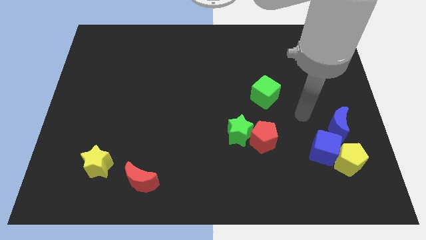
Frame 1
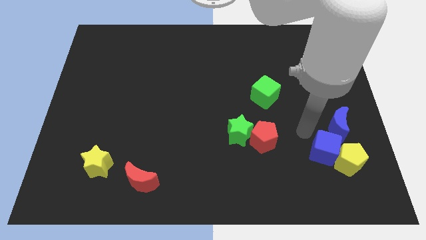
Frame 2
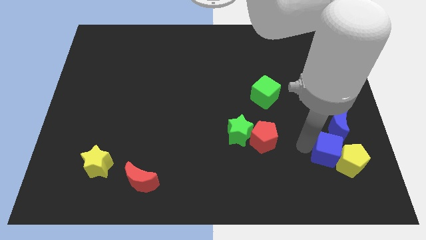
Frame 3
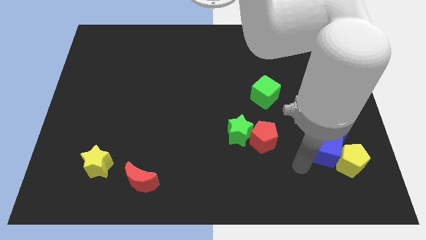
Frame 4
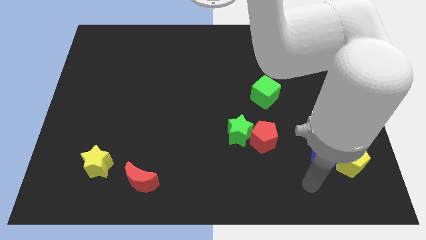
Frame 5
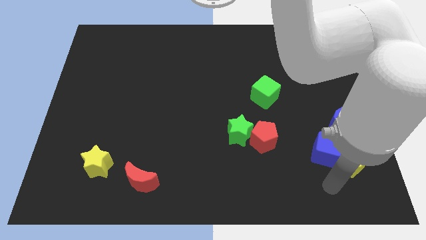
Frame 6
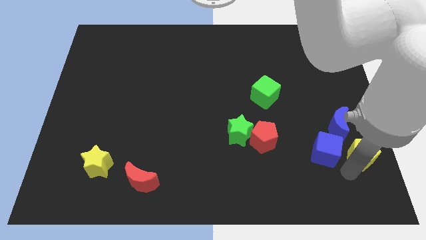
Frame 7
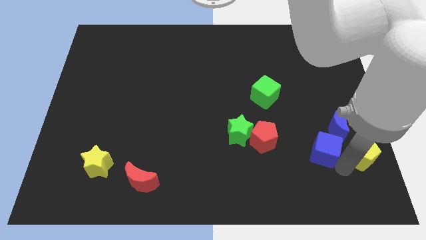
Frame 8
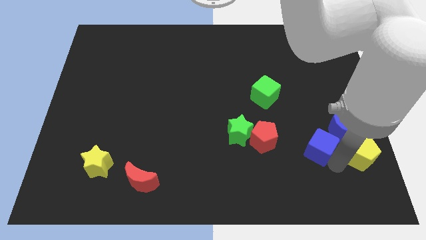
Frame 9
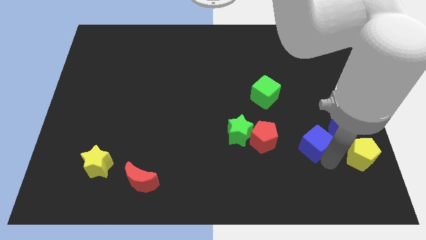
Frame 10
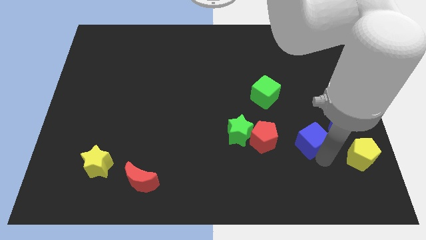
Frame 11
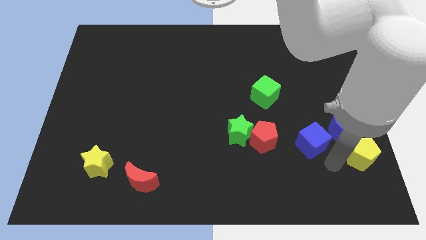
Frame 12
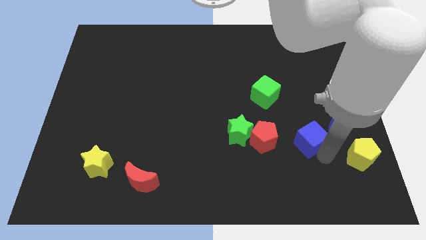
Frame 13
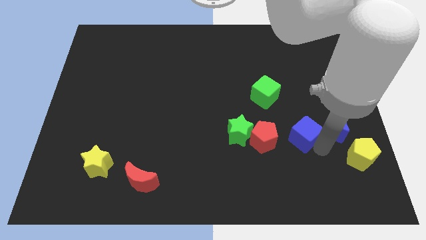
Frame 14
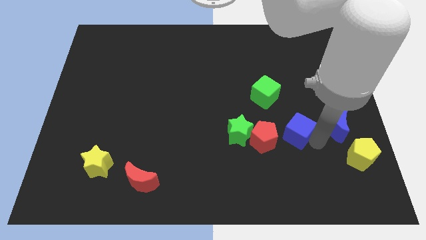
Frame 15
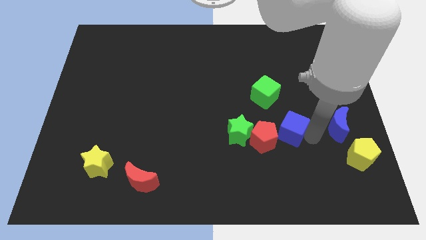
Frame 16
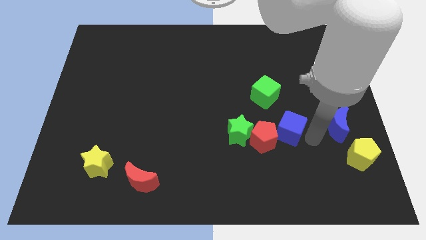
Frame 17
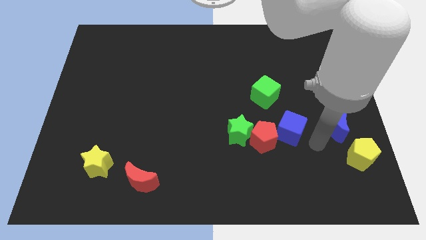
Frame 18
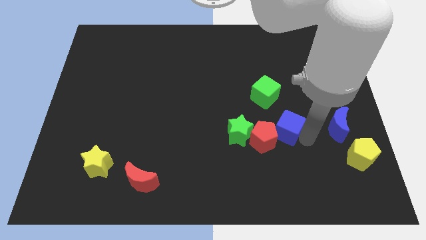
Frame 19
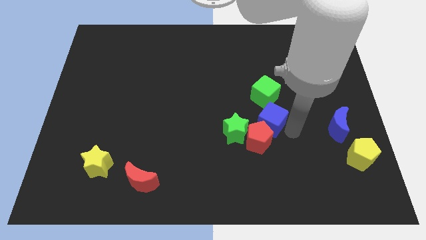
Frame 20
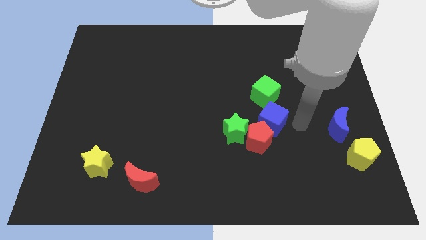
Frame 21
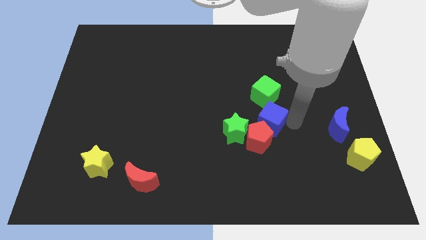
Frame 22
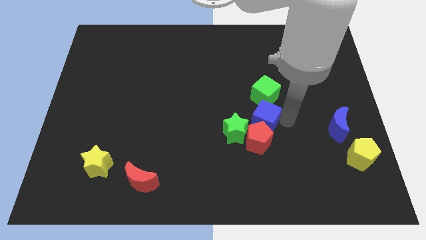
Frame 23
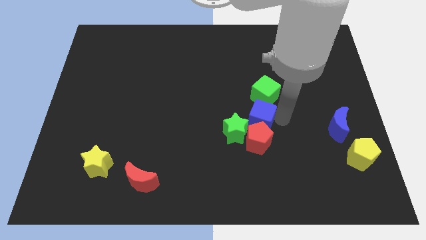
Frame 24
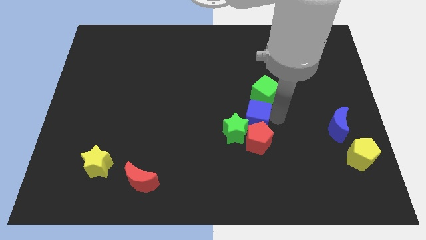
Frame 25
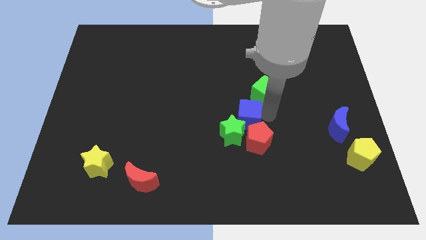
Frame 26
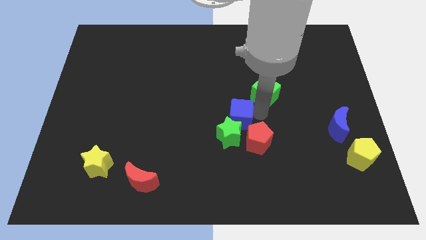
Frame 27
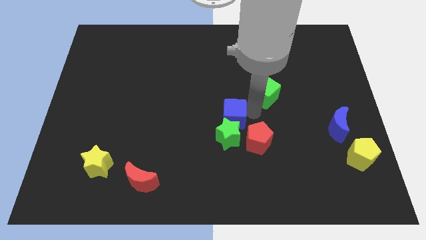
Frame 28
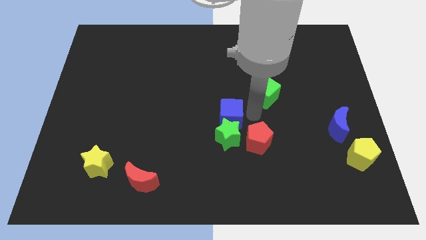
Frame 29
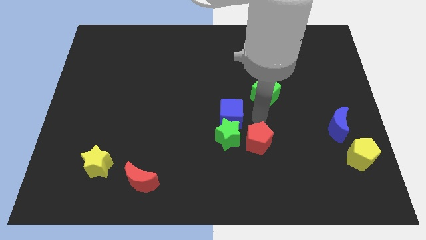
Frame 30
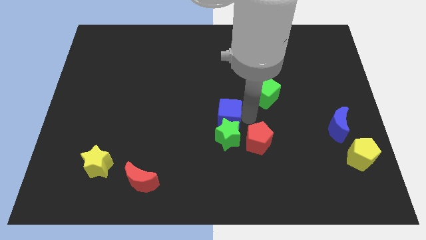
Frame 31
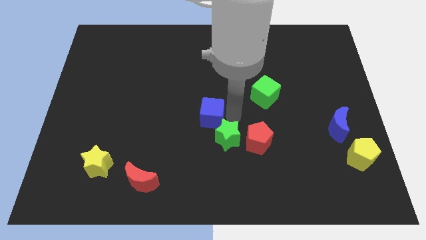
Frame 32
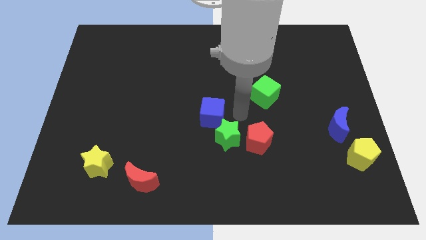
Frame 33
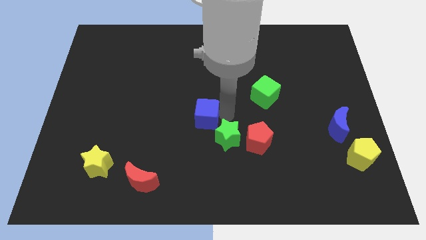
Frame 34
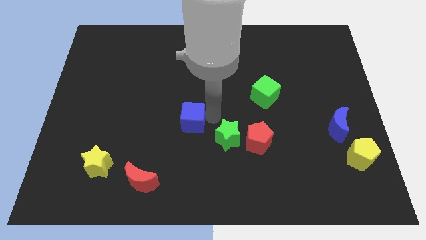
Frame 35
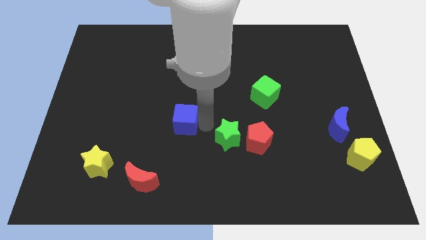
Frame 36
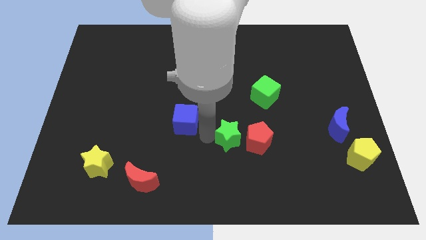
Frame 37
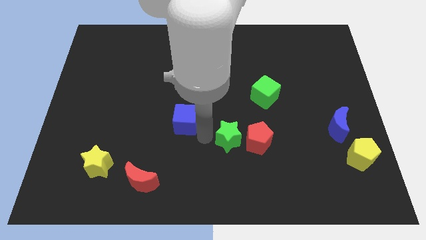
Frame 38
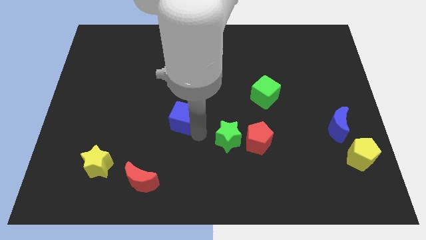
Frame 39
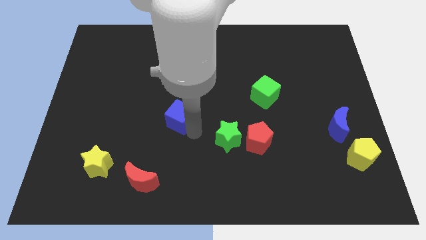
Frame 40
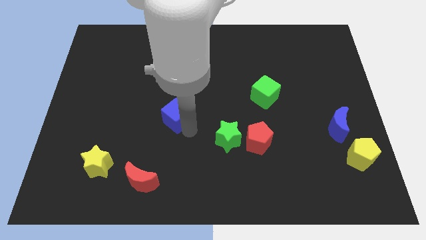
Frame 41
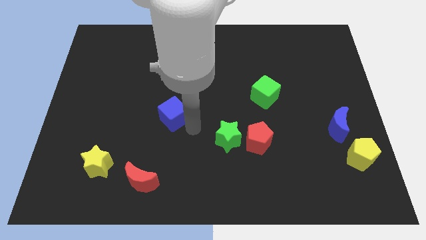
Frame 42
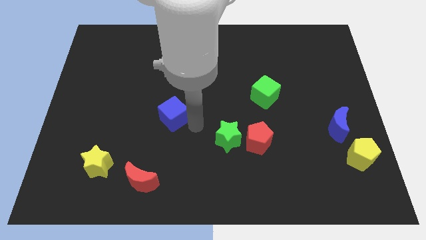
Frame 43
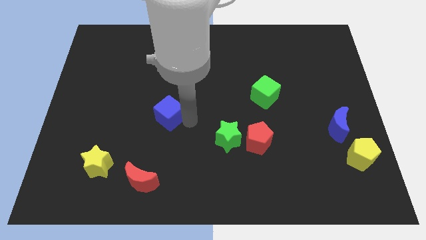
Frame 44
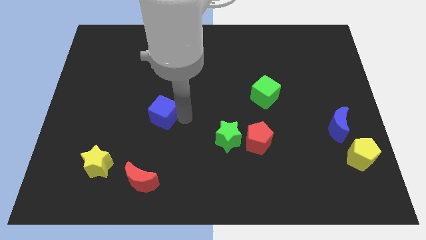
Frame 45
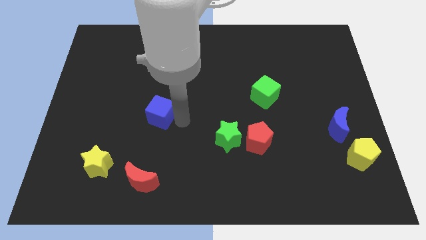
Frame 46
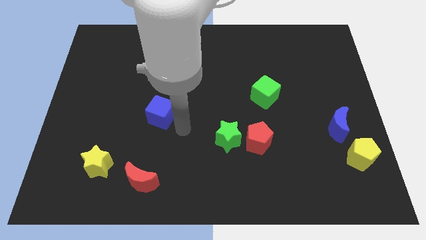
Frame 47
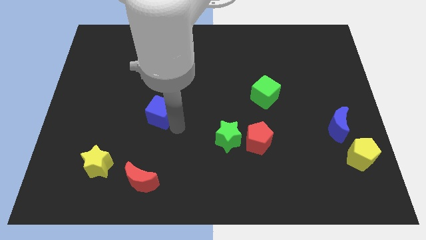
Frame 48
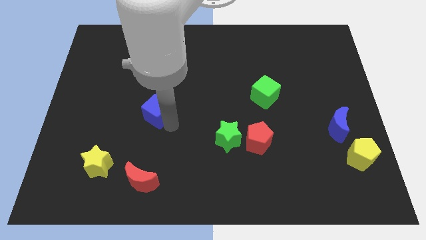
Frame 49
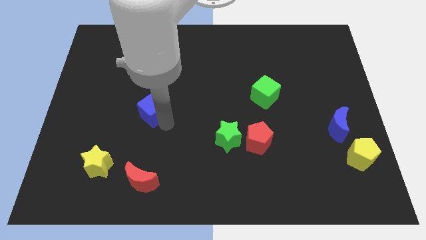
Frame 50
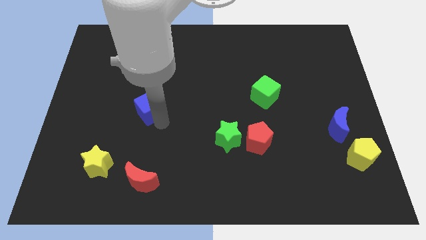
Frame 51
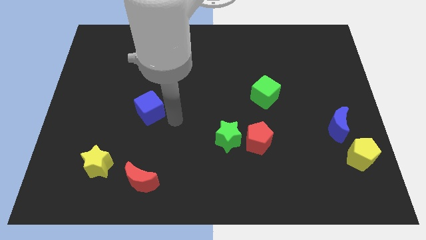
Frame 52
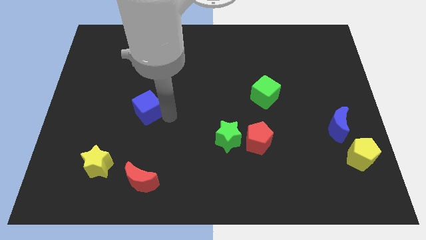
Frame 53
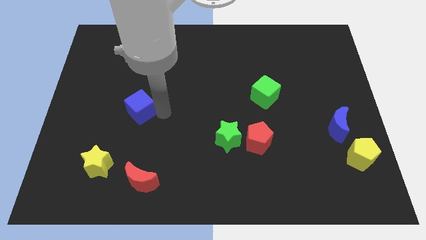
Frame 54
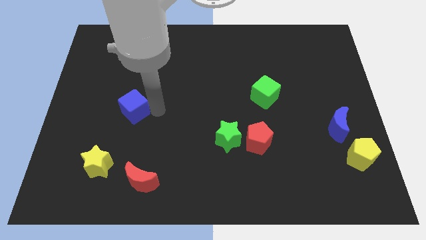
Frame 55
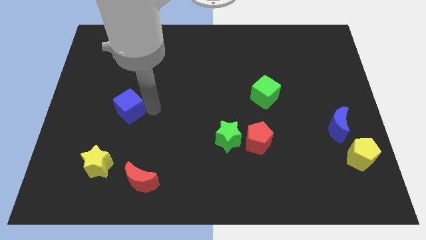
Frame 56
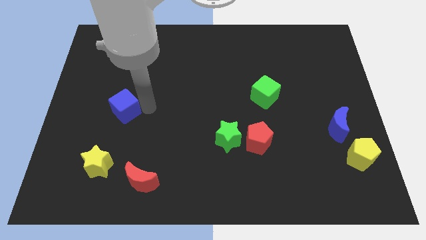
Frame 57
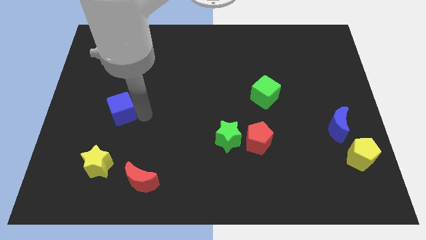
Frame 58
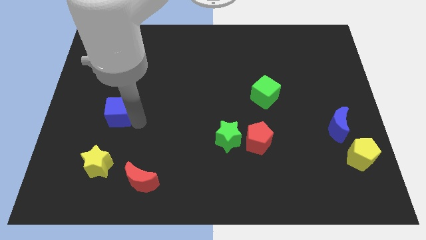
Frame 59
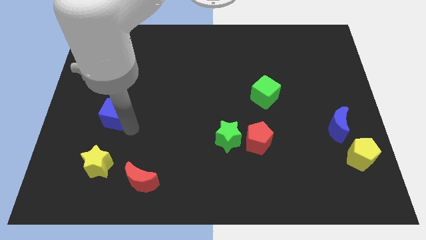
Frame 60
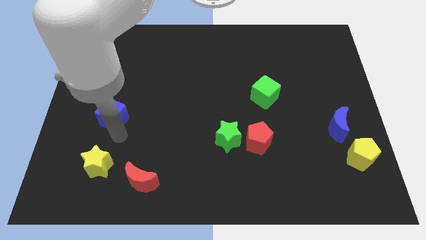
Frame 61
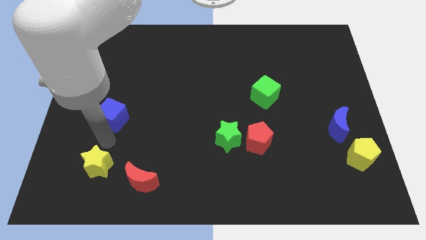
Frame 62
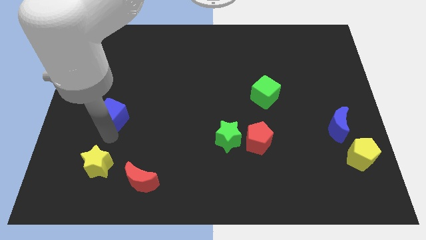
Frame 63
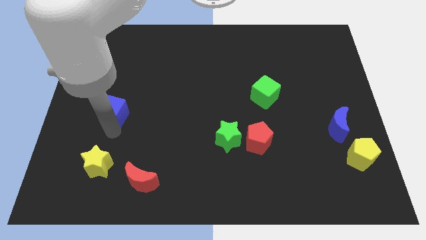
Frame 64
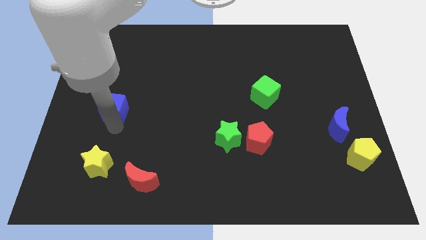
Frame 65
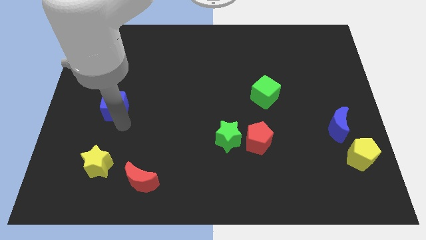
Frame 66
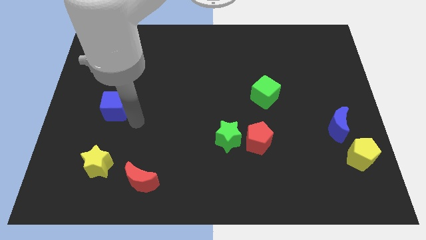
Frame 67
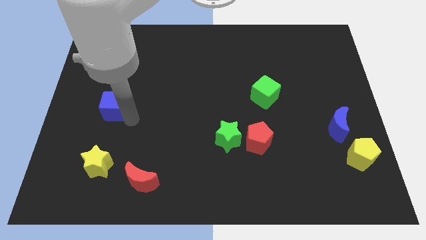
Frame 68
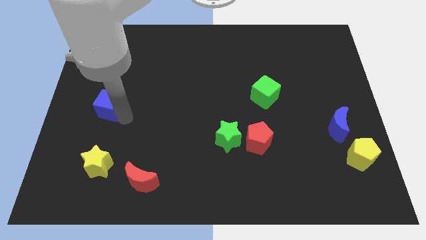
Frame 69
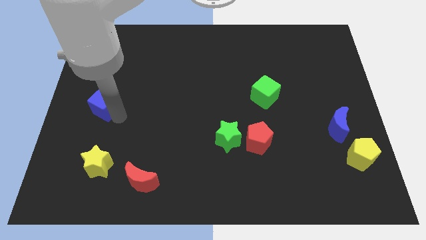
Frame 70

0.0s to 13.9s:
push the blue cube to the left side

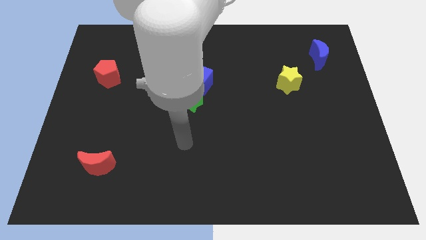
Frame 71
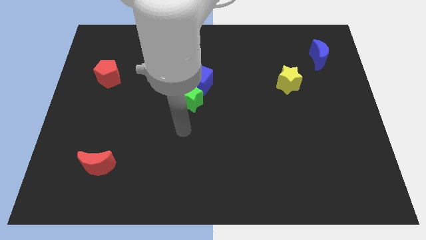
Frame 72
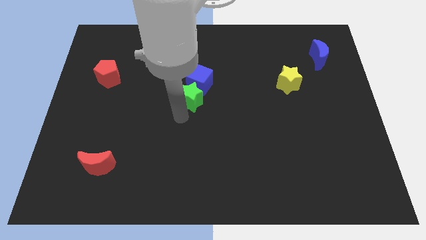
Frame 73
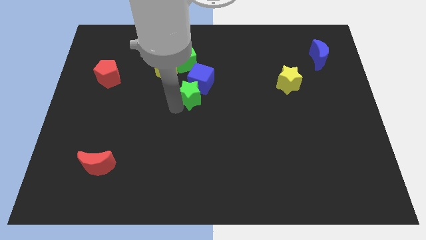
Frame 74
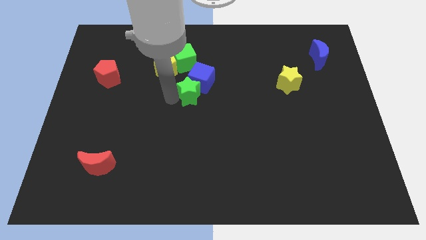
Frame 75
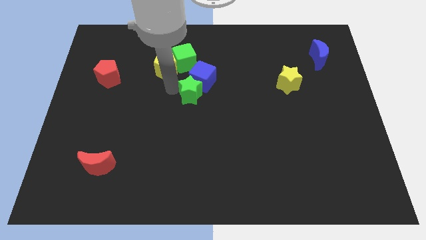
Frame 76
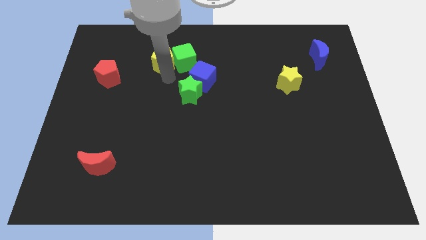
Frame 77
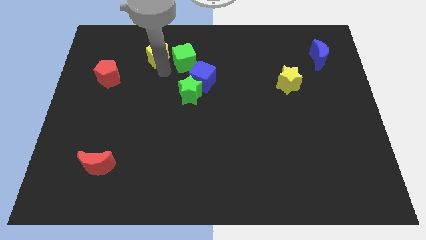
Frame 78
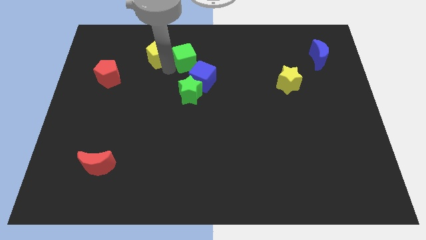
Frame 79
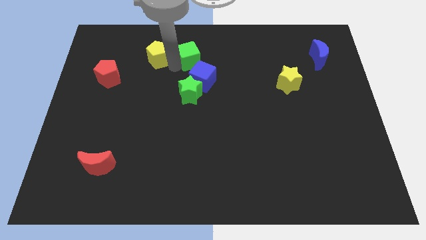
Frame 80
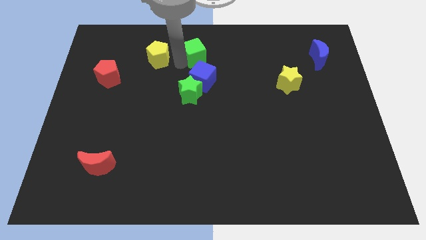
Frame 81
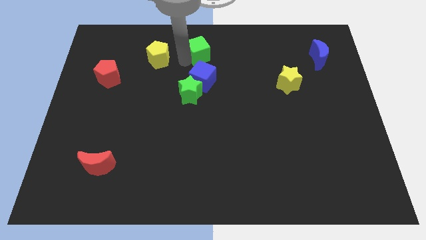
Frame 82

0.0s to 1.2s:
put the green cube to the towards your base
